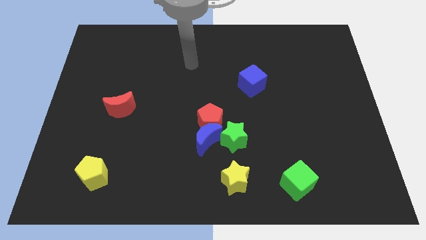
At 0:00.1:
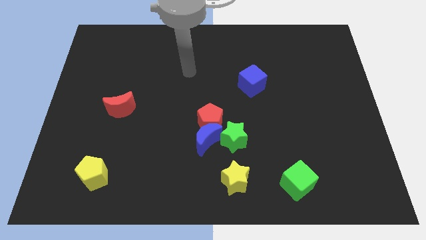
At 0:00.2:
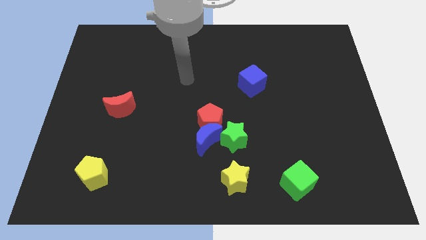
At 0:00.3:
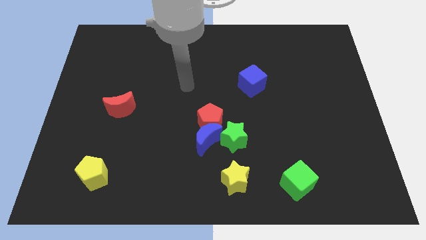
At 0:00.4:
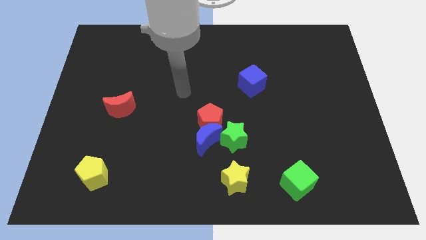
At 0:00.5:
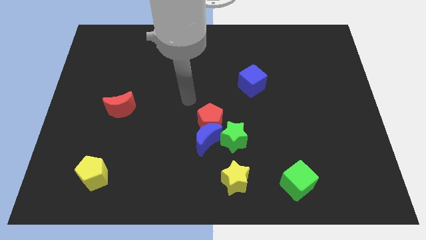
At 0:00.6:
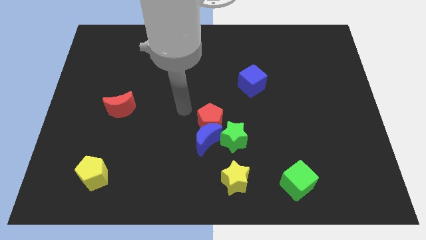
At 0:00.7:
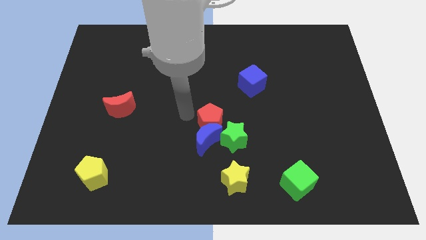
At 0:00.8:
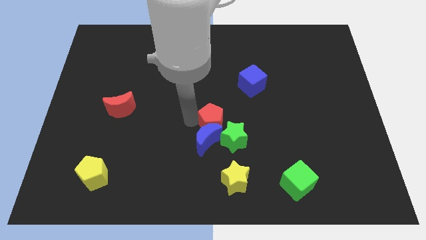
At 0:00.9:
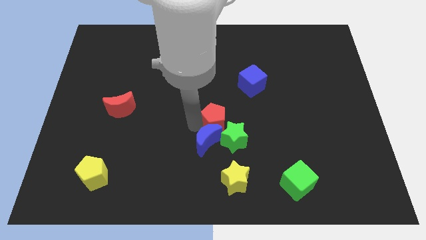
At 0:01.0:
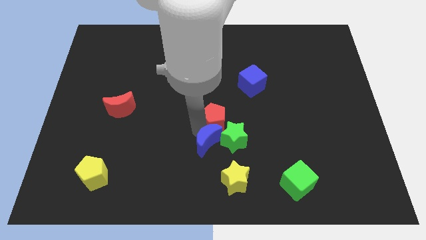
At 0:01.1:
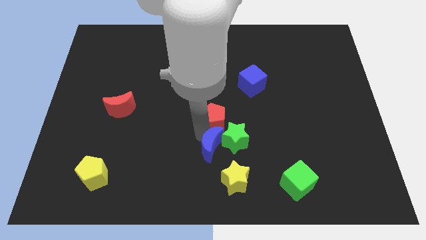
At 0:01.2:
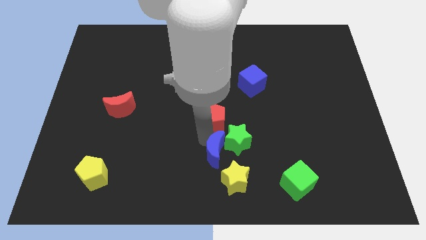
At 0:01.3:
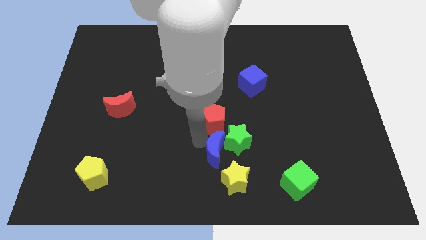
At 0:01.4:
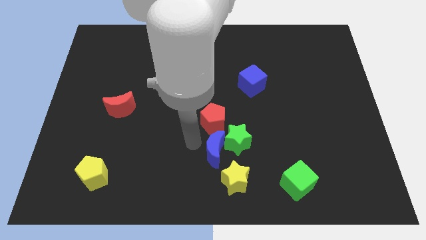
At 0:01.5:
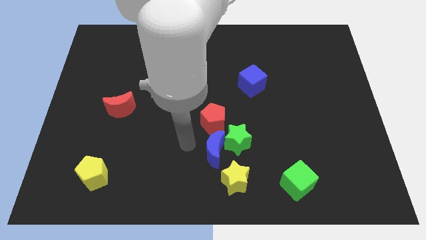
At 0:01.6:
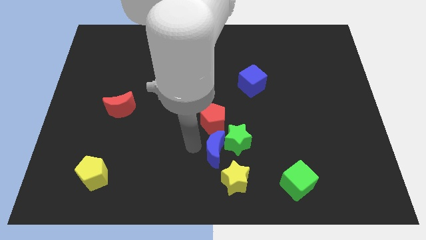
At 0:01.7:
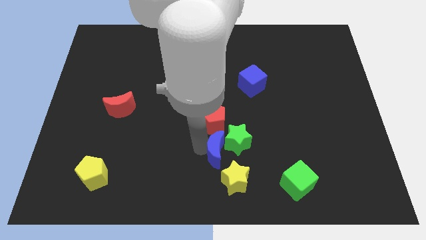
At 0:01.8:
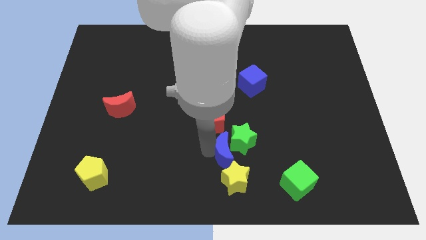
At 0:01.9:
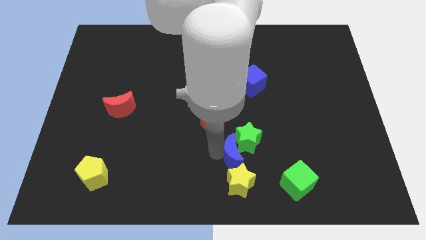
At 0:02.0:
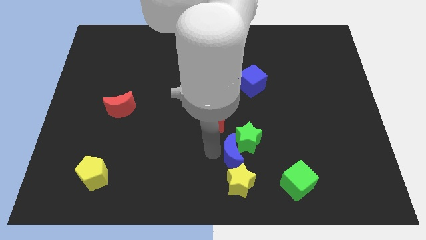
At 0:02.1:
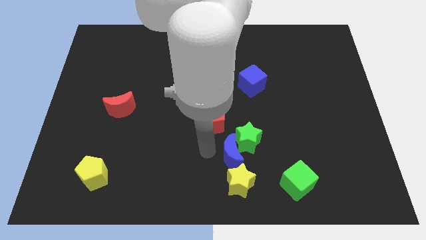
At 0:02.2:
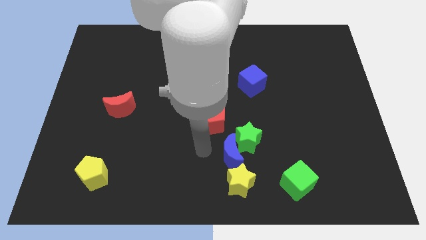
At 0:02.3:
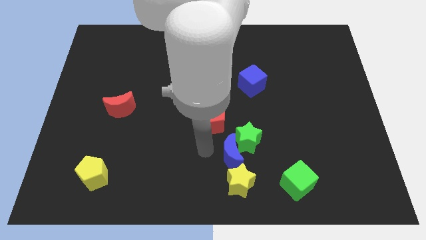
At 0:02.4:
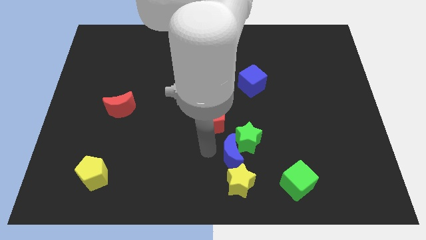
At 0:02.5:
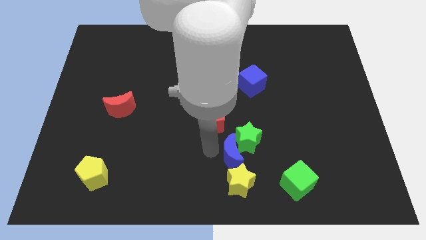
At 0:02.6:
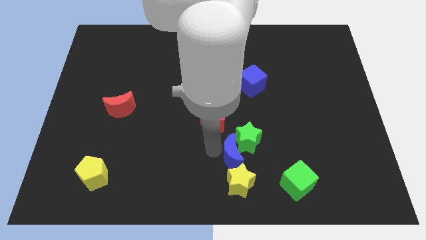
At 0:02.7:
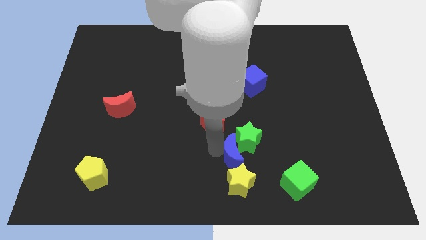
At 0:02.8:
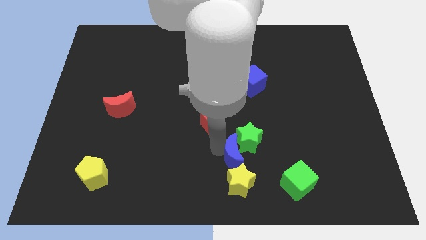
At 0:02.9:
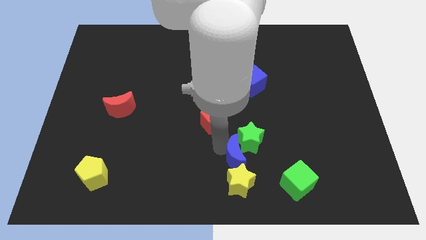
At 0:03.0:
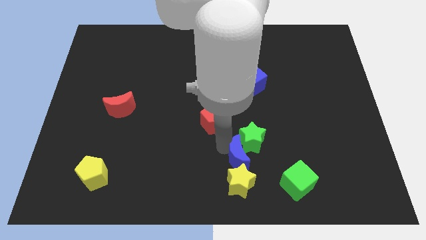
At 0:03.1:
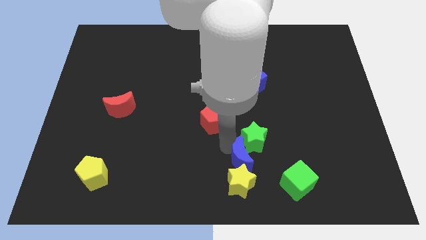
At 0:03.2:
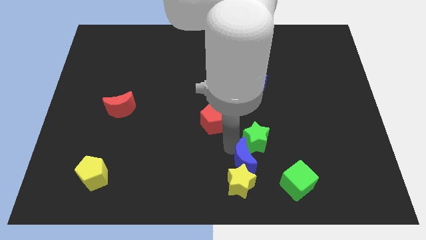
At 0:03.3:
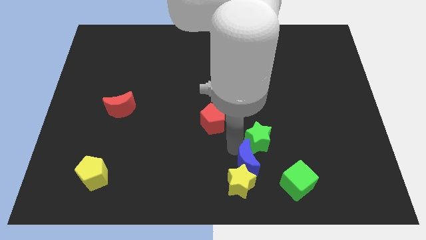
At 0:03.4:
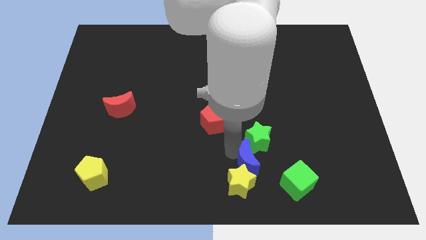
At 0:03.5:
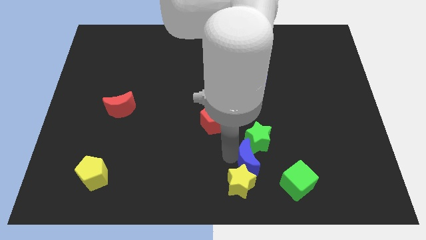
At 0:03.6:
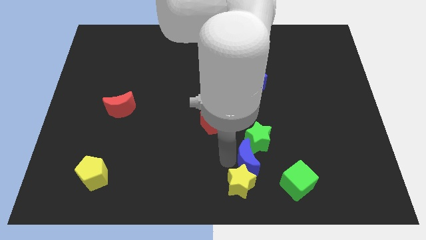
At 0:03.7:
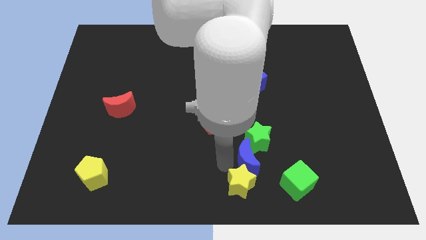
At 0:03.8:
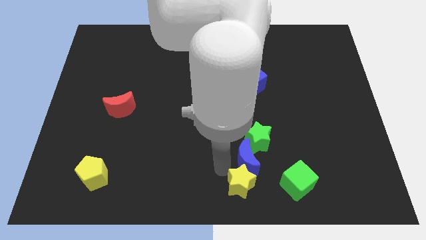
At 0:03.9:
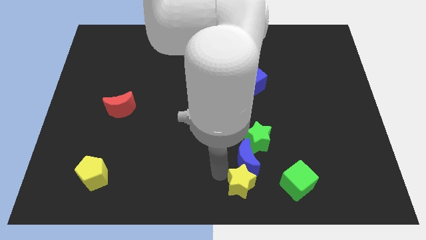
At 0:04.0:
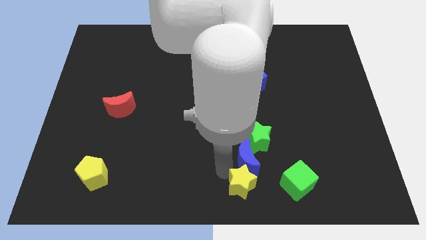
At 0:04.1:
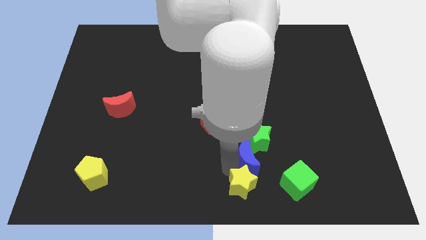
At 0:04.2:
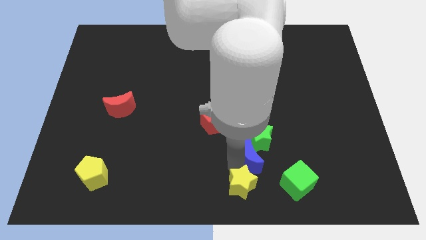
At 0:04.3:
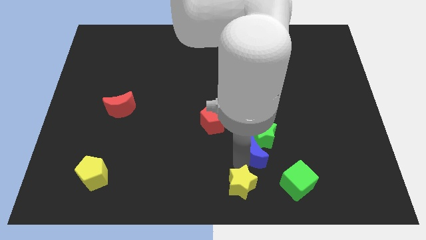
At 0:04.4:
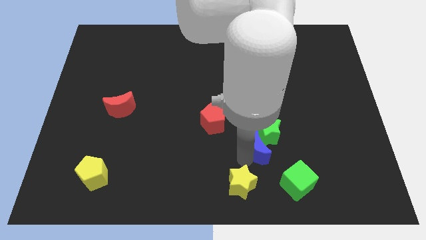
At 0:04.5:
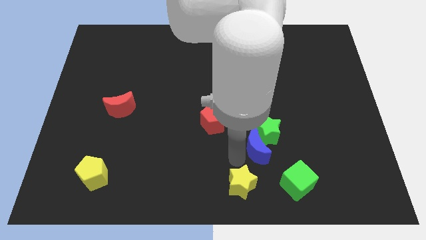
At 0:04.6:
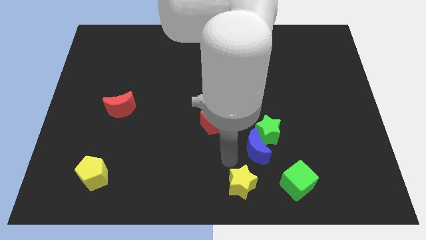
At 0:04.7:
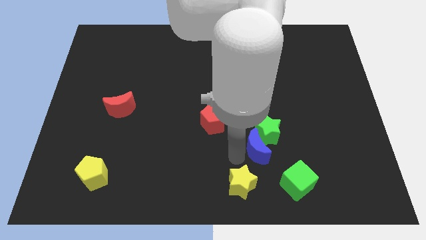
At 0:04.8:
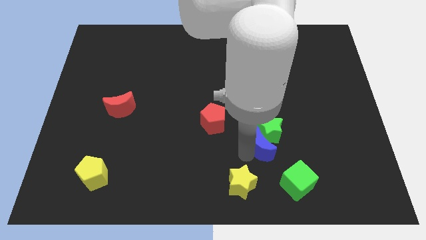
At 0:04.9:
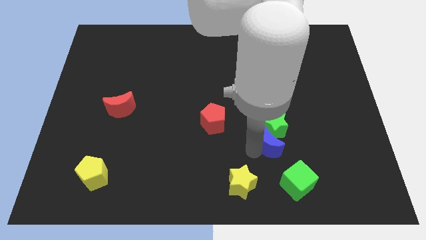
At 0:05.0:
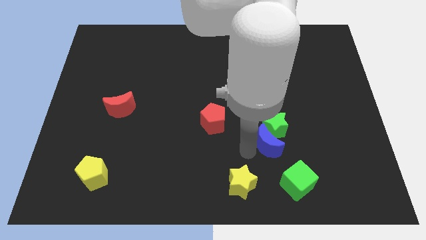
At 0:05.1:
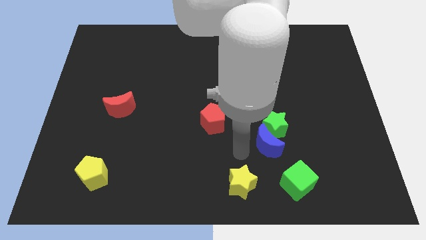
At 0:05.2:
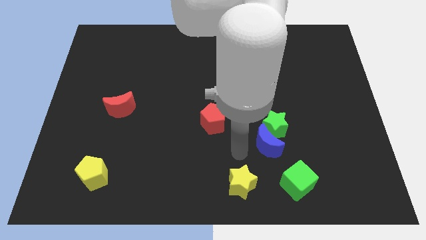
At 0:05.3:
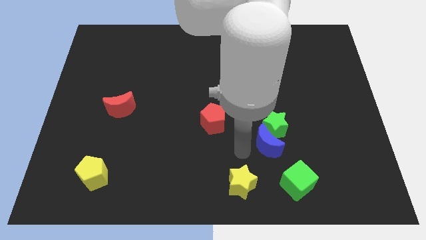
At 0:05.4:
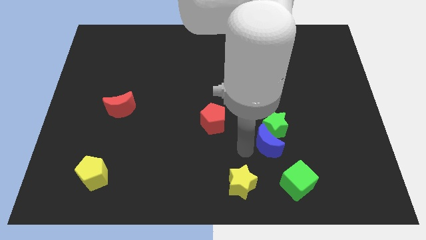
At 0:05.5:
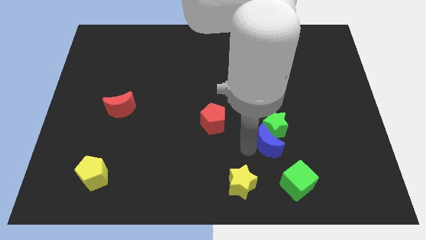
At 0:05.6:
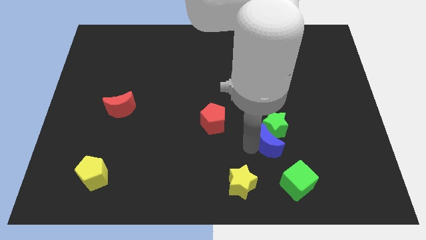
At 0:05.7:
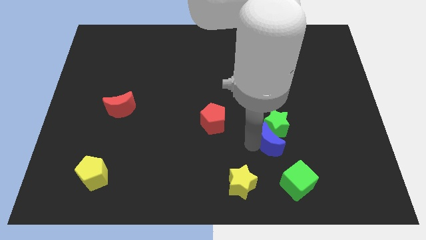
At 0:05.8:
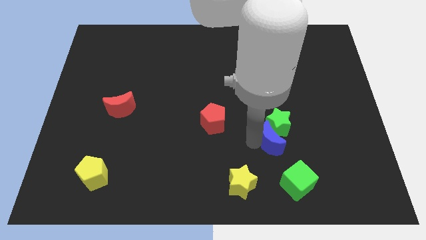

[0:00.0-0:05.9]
slide the blue moon to the top side of the green cube
